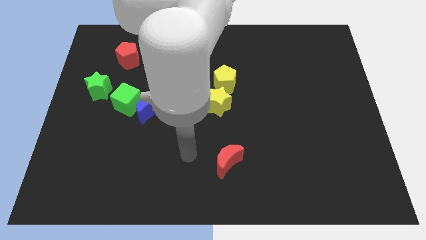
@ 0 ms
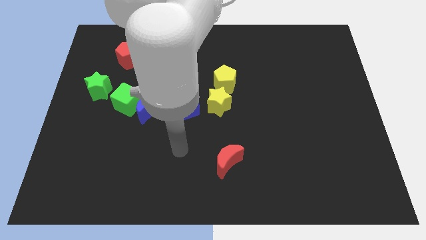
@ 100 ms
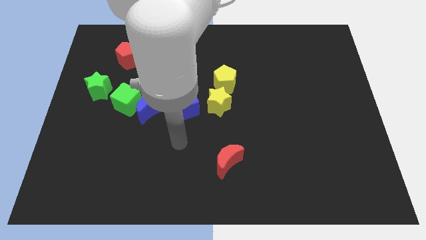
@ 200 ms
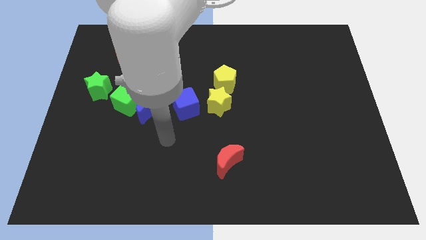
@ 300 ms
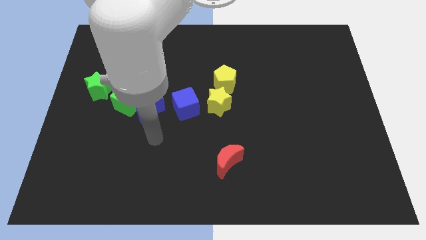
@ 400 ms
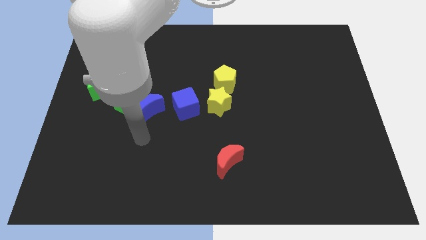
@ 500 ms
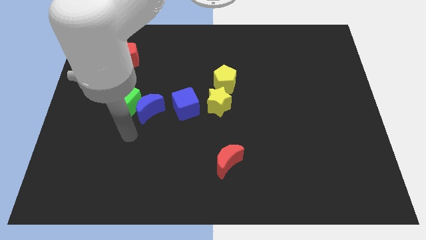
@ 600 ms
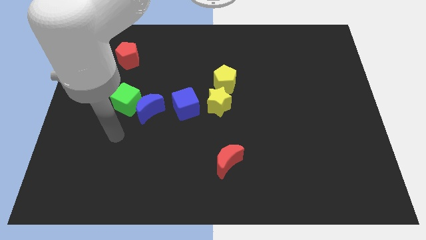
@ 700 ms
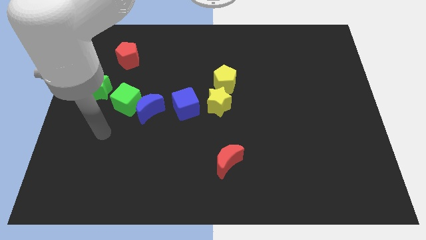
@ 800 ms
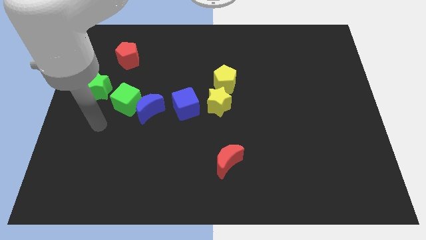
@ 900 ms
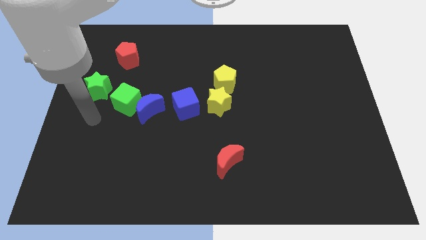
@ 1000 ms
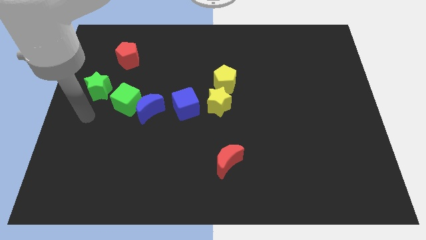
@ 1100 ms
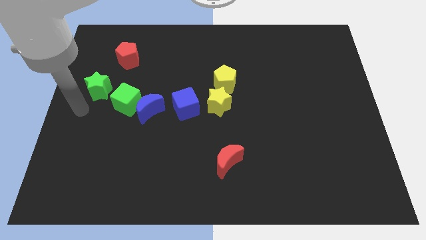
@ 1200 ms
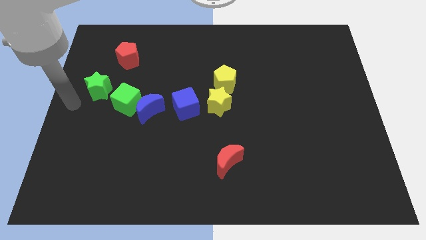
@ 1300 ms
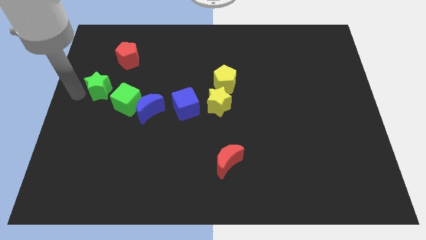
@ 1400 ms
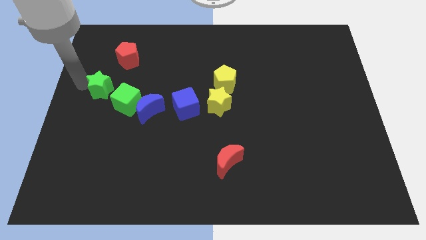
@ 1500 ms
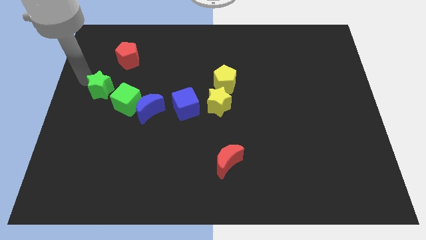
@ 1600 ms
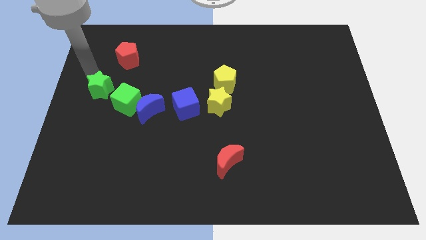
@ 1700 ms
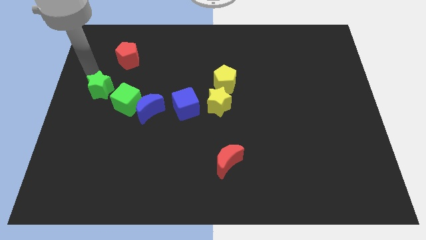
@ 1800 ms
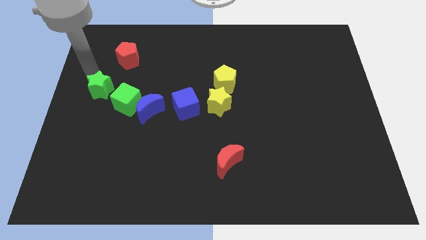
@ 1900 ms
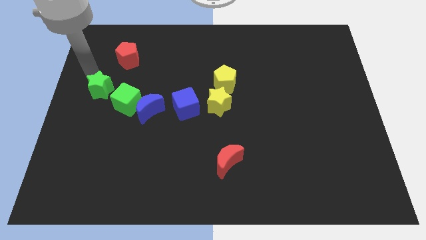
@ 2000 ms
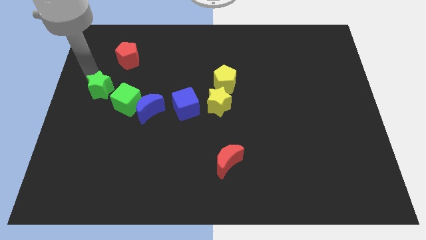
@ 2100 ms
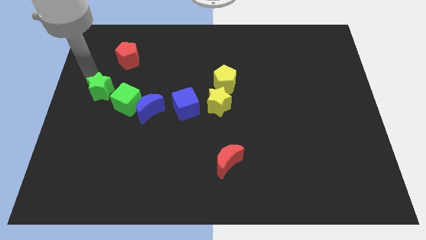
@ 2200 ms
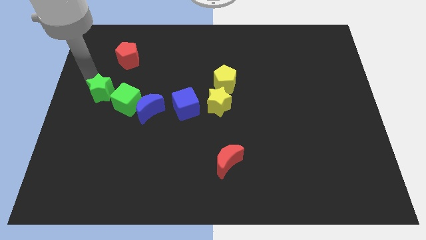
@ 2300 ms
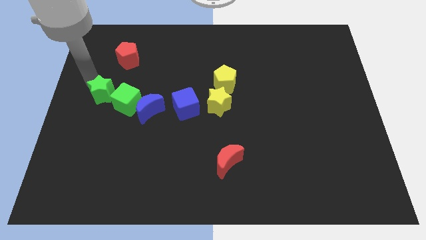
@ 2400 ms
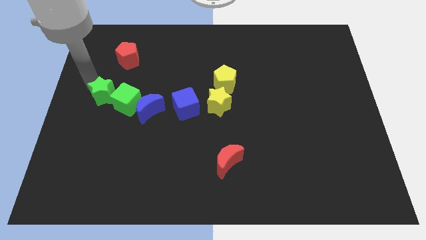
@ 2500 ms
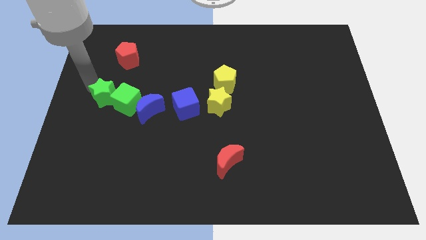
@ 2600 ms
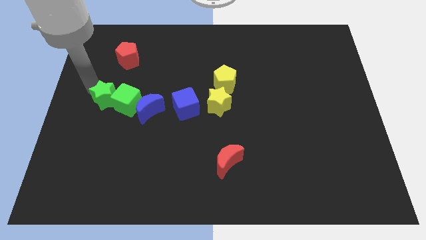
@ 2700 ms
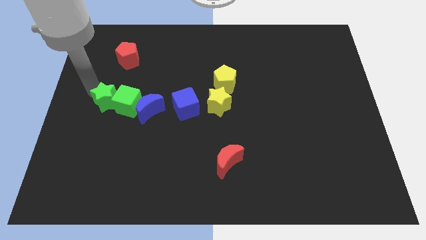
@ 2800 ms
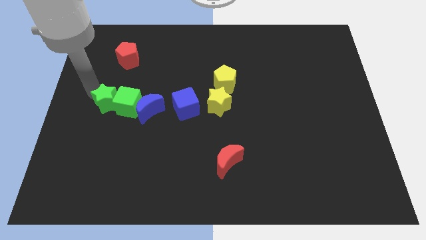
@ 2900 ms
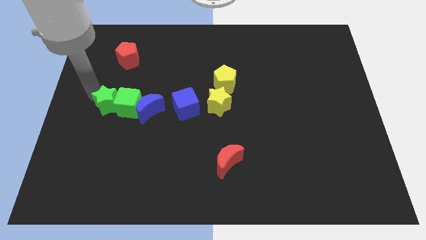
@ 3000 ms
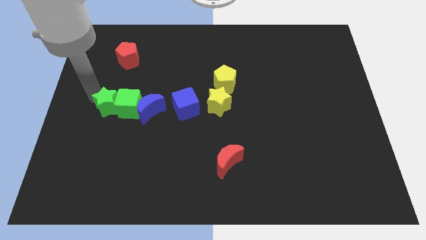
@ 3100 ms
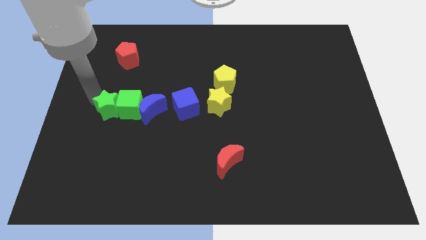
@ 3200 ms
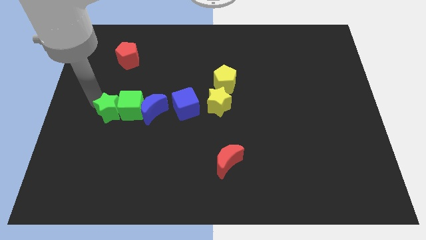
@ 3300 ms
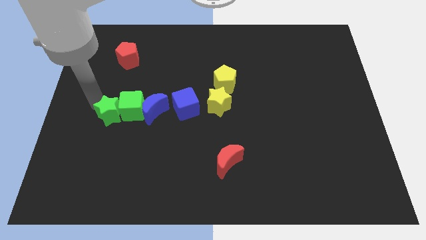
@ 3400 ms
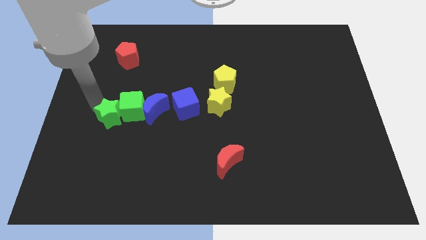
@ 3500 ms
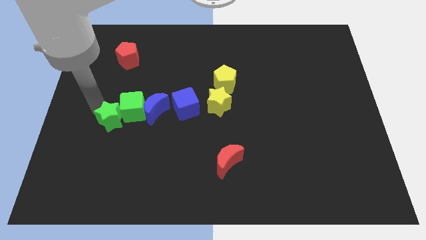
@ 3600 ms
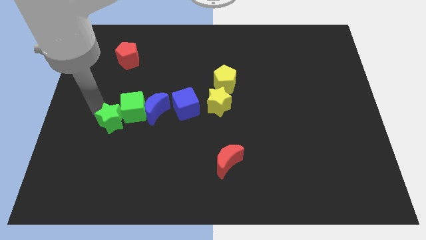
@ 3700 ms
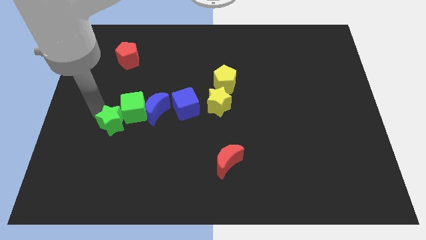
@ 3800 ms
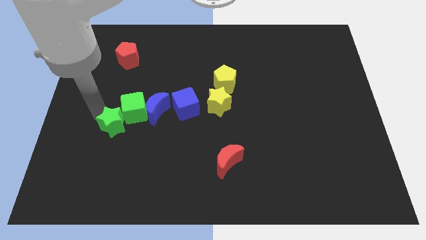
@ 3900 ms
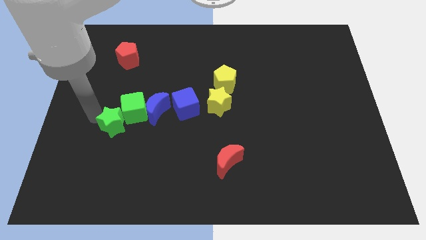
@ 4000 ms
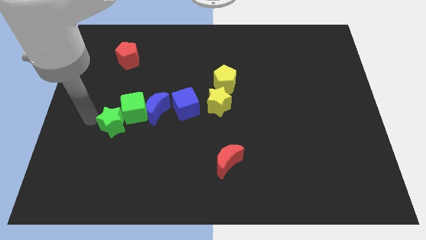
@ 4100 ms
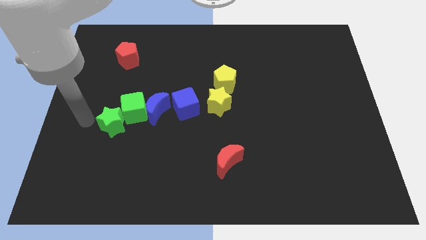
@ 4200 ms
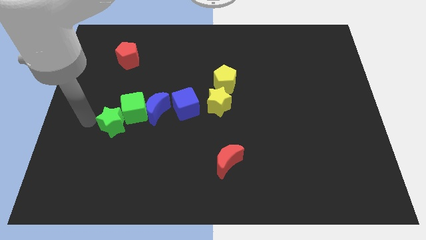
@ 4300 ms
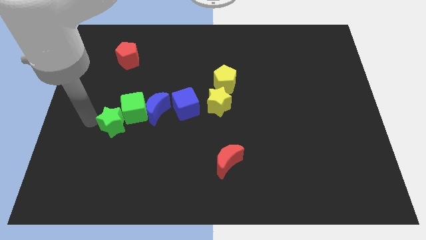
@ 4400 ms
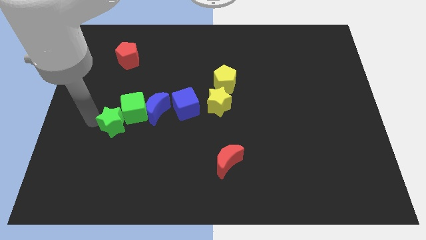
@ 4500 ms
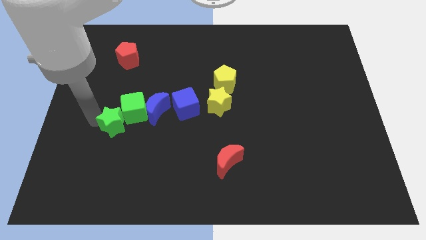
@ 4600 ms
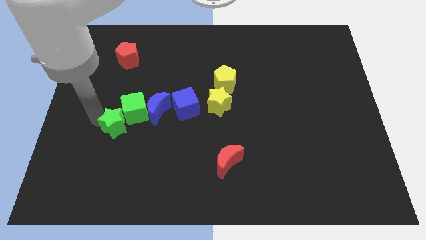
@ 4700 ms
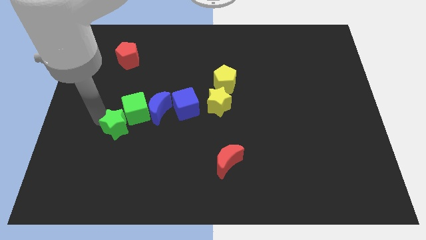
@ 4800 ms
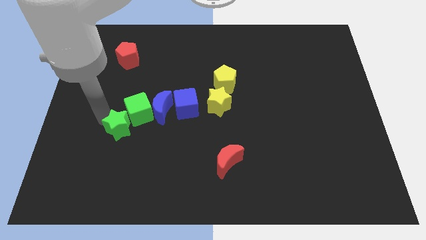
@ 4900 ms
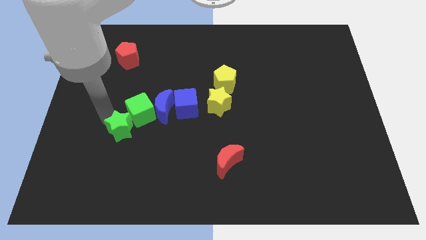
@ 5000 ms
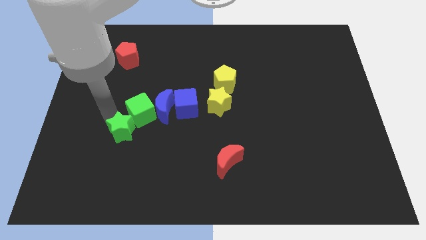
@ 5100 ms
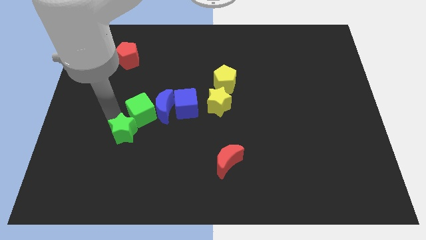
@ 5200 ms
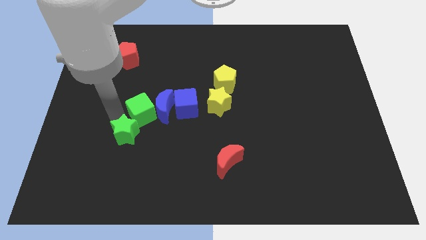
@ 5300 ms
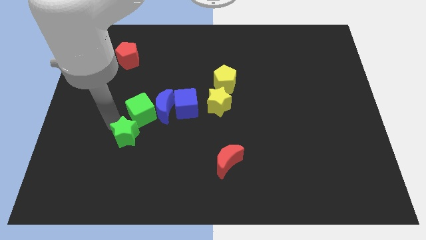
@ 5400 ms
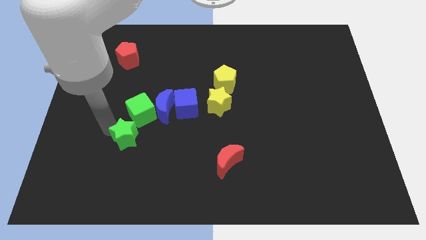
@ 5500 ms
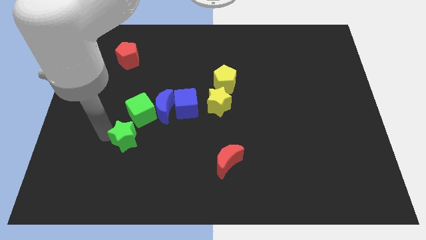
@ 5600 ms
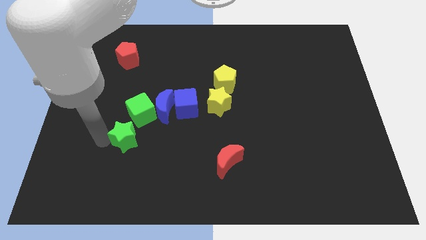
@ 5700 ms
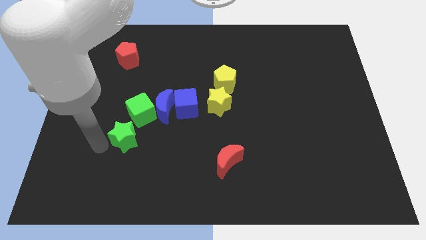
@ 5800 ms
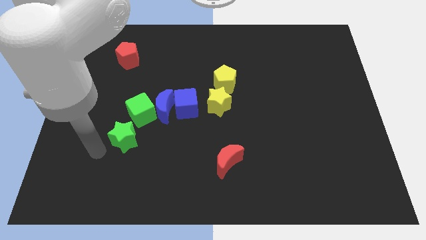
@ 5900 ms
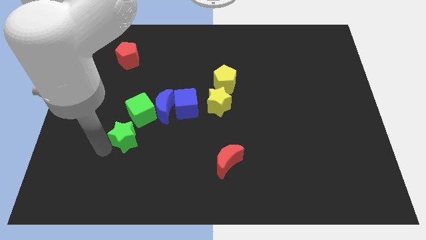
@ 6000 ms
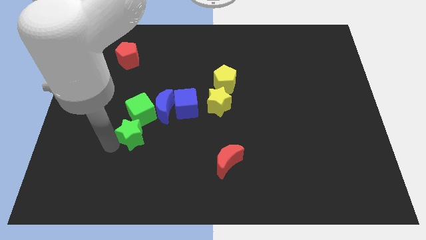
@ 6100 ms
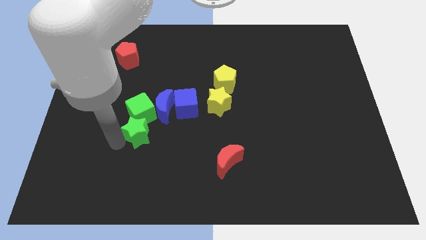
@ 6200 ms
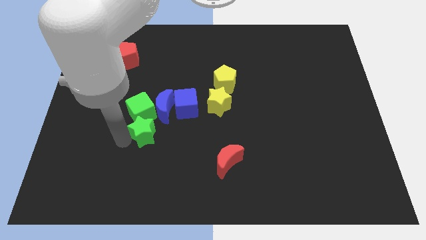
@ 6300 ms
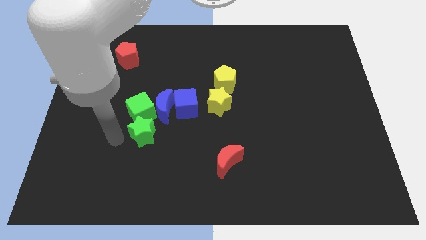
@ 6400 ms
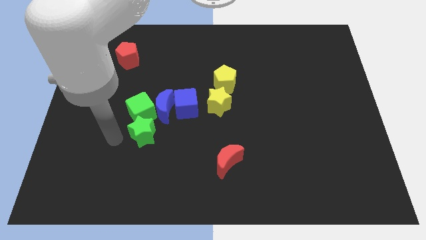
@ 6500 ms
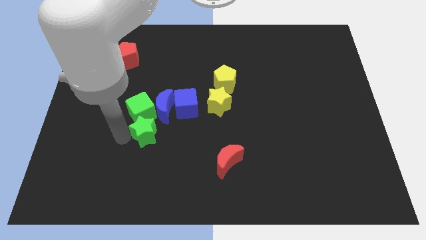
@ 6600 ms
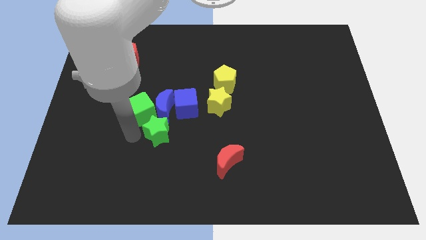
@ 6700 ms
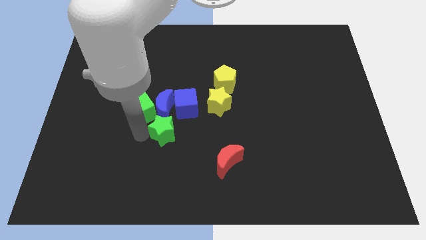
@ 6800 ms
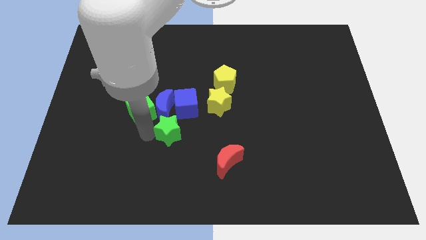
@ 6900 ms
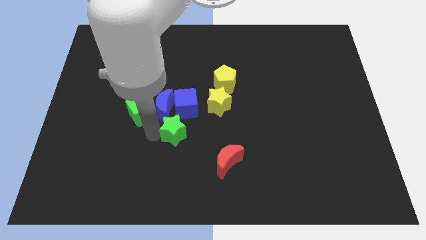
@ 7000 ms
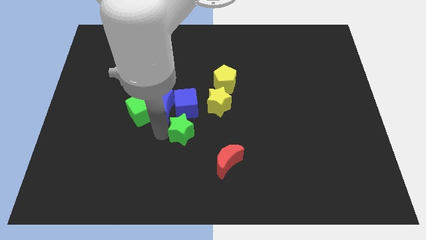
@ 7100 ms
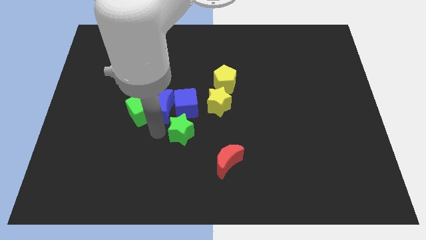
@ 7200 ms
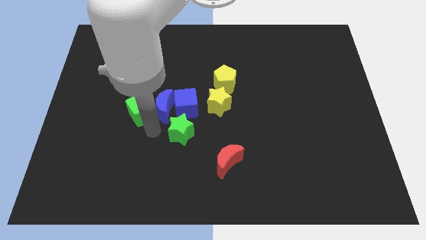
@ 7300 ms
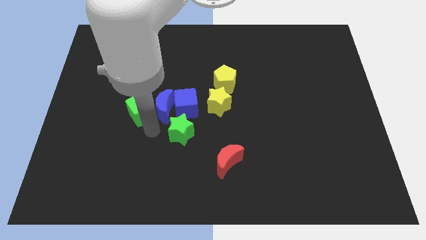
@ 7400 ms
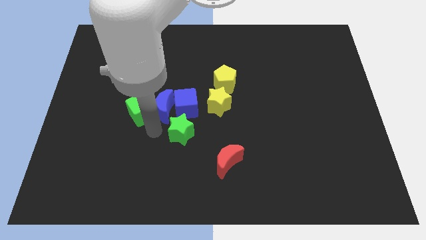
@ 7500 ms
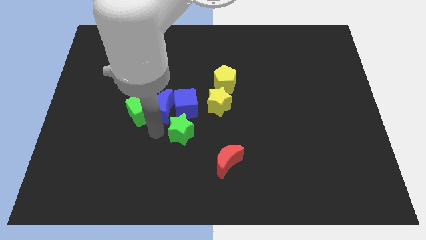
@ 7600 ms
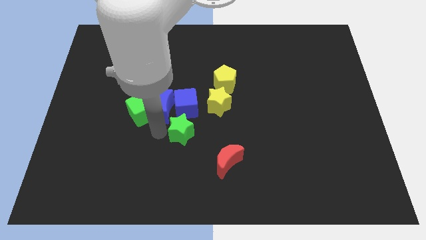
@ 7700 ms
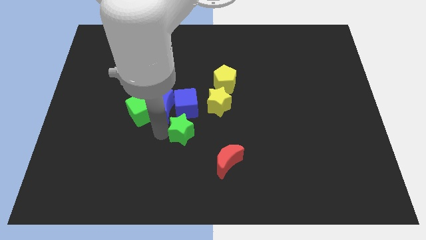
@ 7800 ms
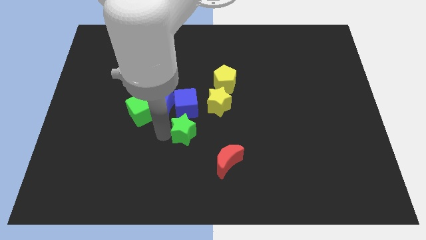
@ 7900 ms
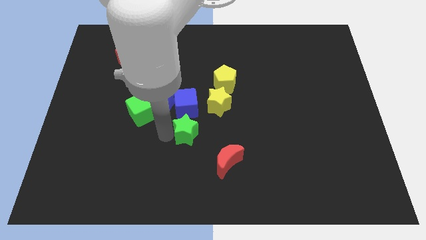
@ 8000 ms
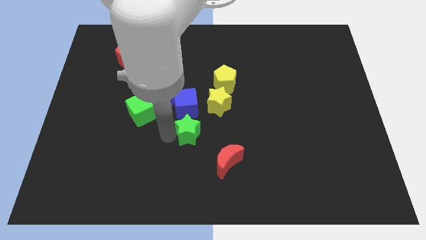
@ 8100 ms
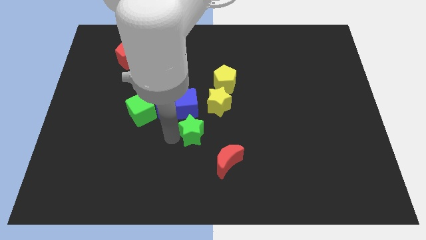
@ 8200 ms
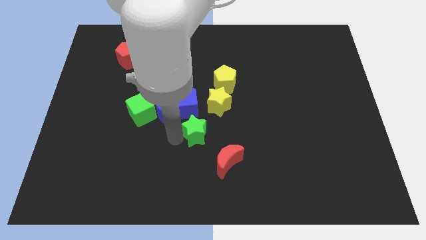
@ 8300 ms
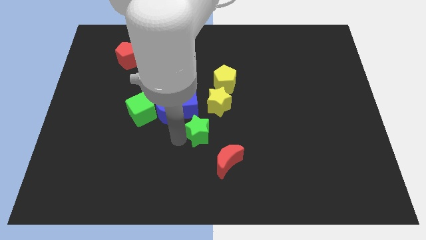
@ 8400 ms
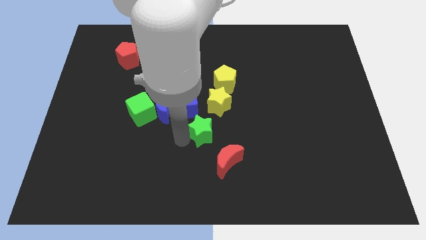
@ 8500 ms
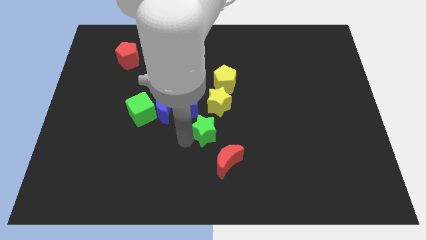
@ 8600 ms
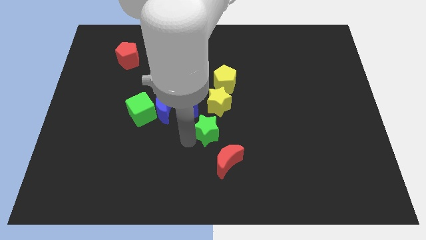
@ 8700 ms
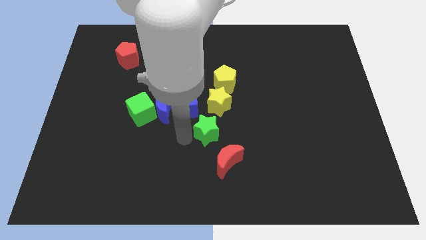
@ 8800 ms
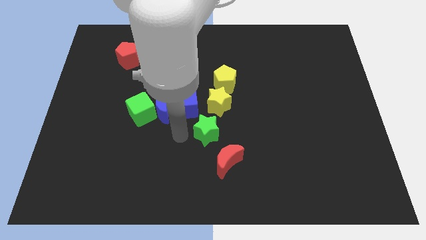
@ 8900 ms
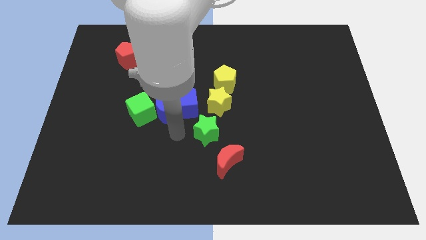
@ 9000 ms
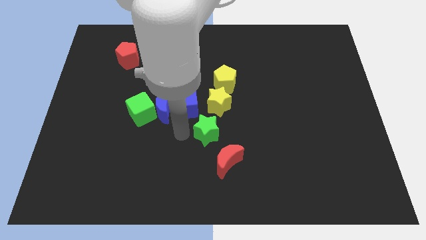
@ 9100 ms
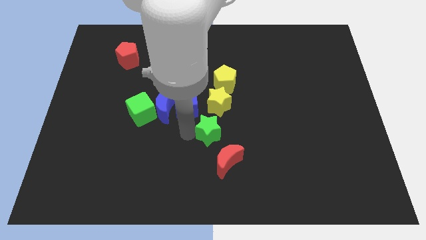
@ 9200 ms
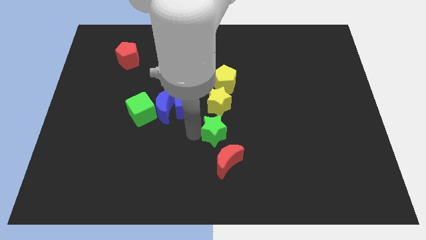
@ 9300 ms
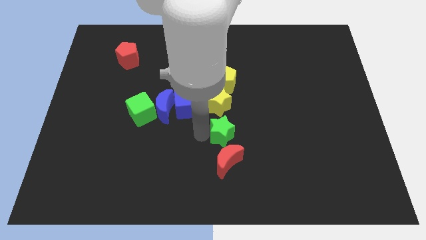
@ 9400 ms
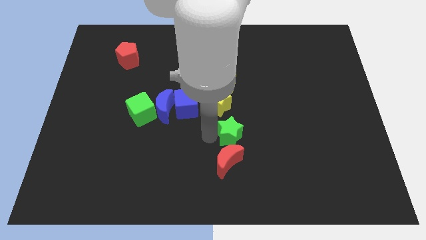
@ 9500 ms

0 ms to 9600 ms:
put the green star to the bottom right of the yellow star
